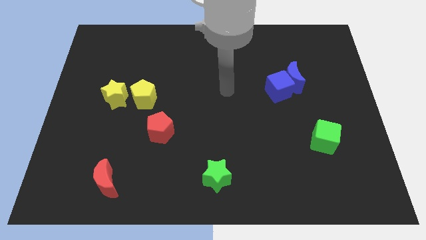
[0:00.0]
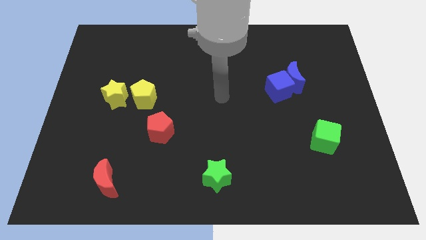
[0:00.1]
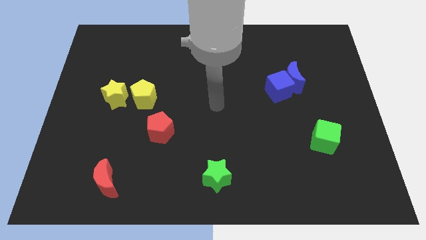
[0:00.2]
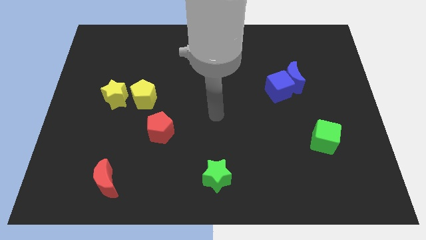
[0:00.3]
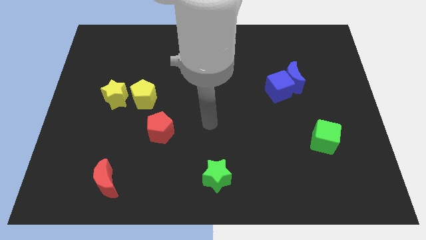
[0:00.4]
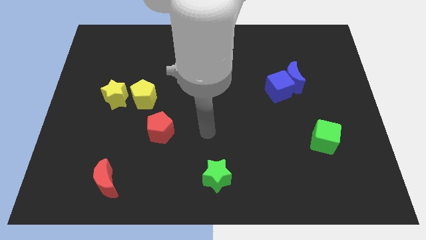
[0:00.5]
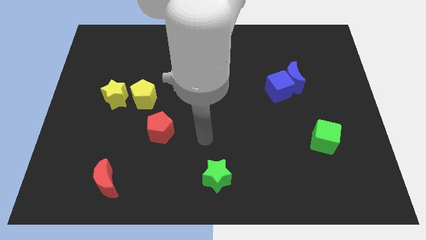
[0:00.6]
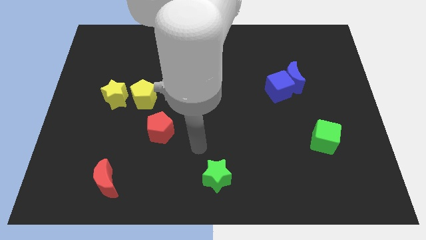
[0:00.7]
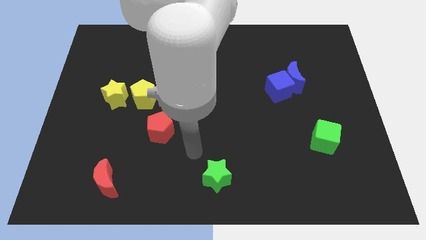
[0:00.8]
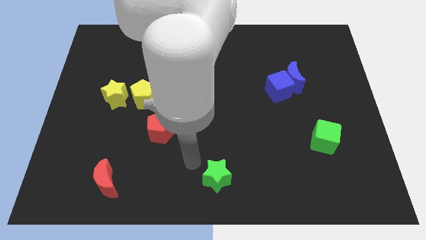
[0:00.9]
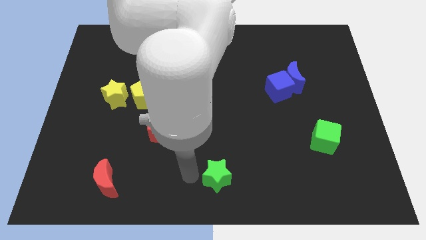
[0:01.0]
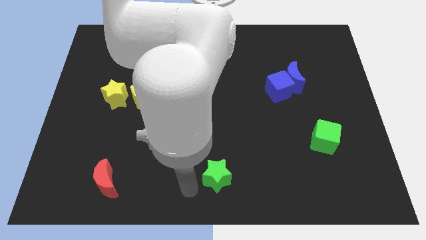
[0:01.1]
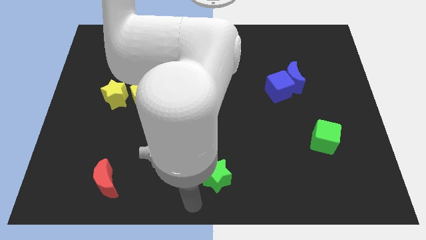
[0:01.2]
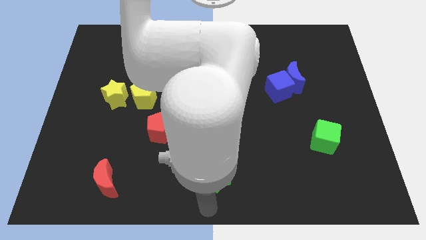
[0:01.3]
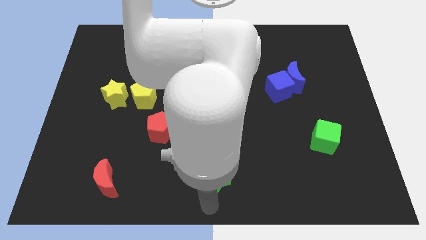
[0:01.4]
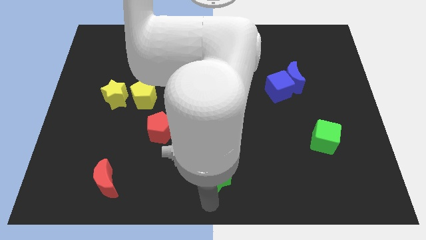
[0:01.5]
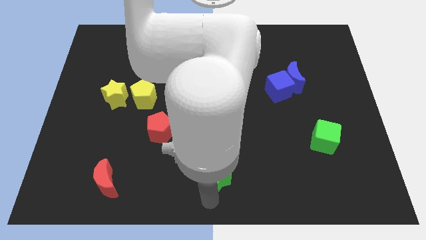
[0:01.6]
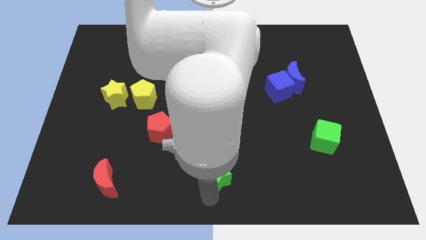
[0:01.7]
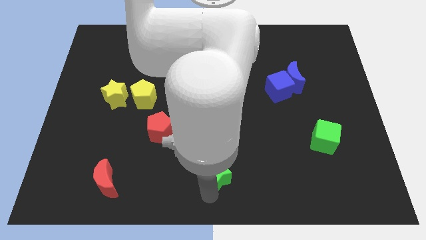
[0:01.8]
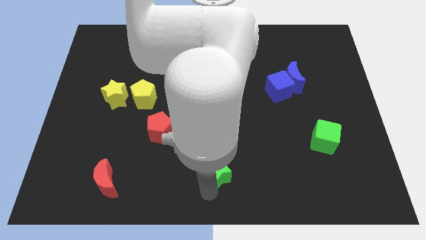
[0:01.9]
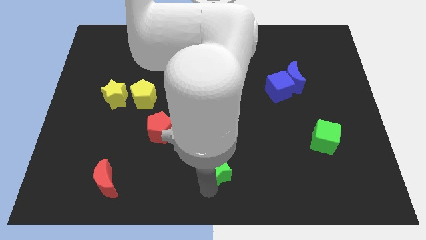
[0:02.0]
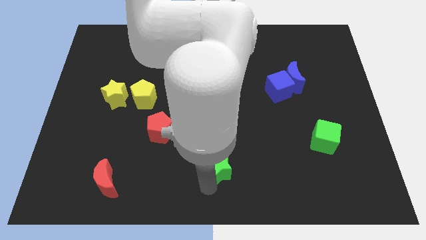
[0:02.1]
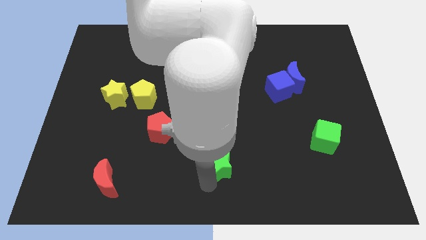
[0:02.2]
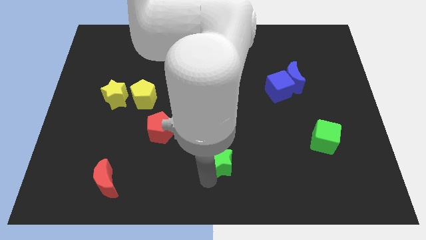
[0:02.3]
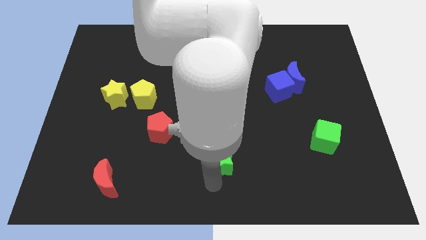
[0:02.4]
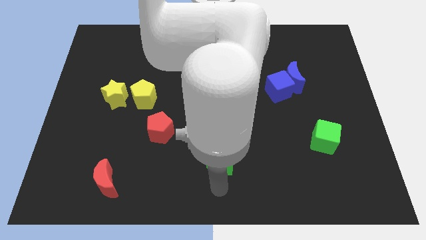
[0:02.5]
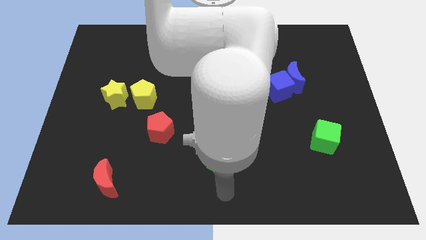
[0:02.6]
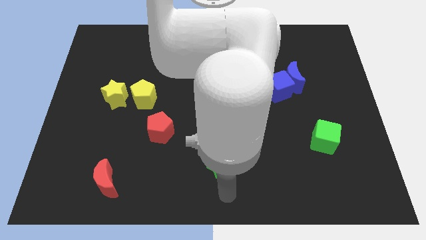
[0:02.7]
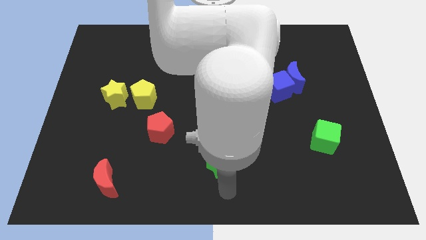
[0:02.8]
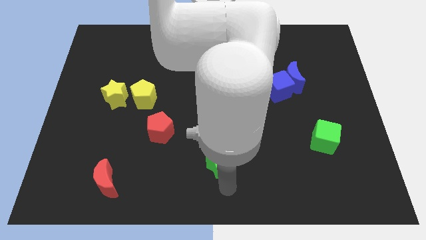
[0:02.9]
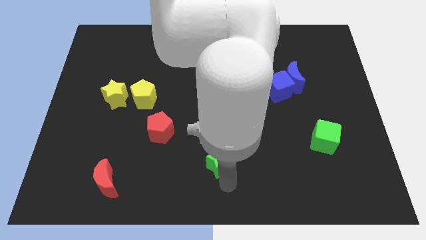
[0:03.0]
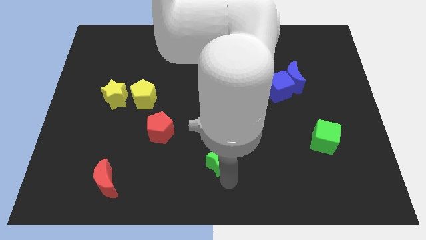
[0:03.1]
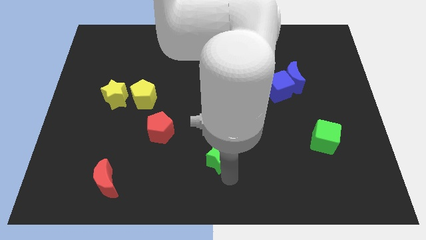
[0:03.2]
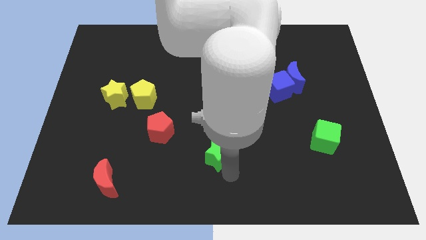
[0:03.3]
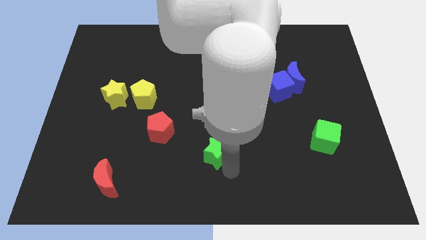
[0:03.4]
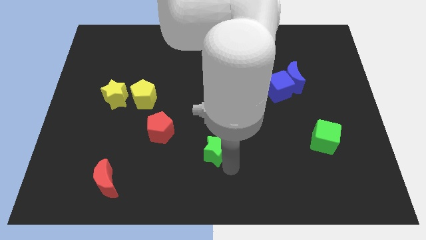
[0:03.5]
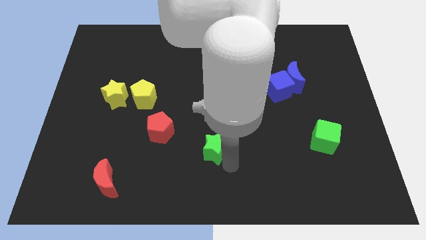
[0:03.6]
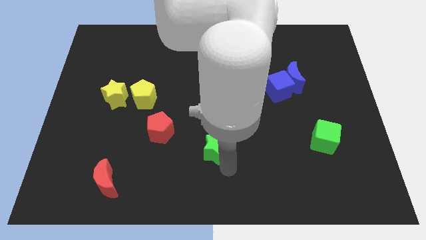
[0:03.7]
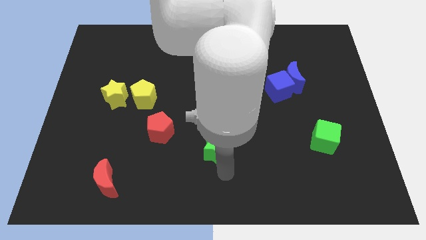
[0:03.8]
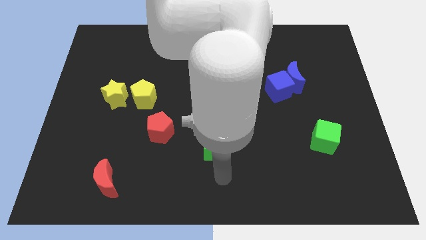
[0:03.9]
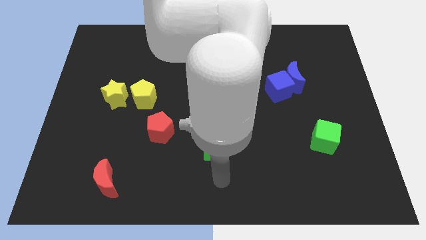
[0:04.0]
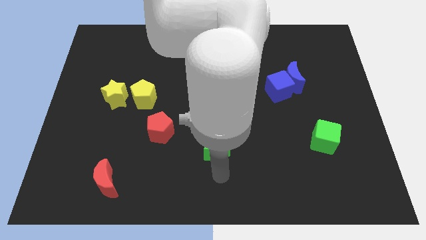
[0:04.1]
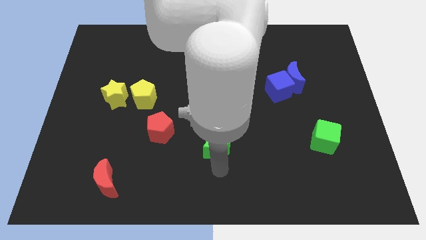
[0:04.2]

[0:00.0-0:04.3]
move the green star somewhat upwards

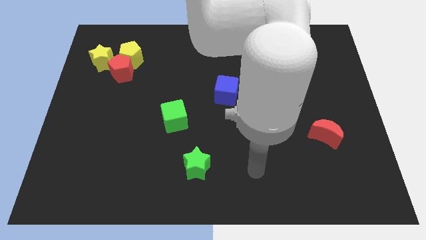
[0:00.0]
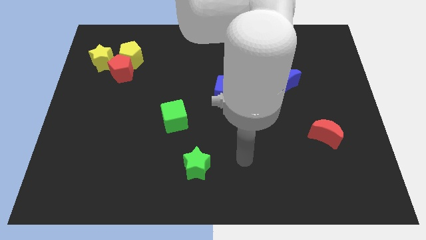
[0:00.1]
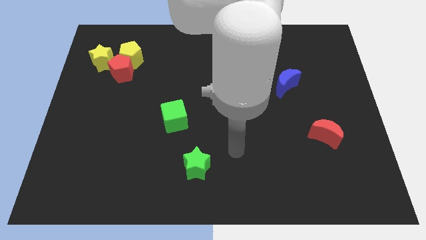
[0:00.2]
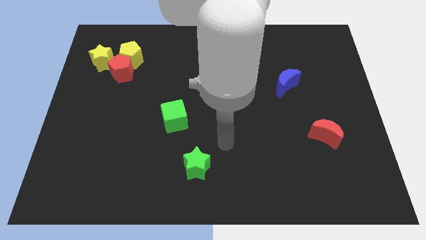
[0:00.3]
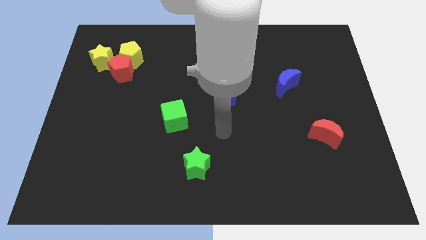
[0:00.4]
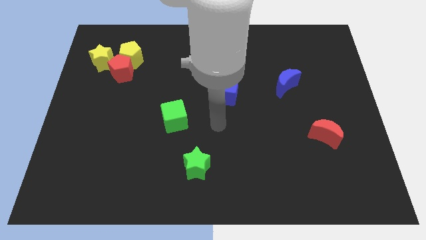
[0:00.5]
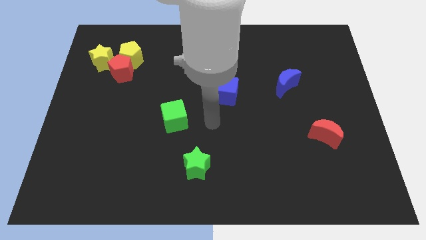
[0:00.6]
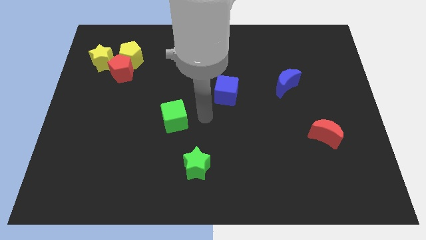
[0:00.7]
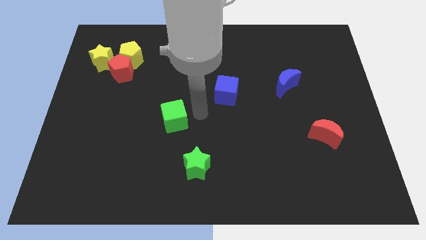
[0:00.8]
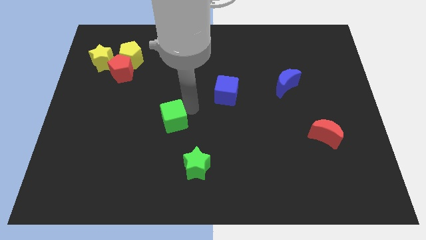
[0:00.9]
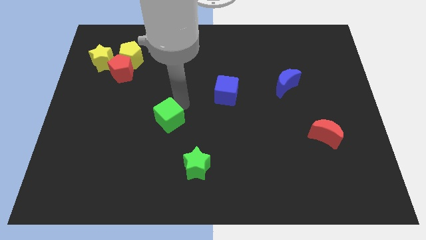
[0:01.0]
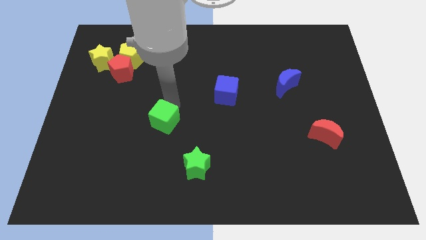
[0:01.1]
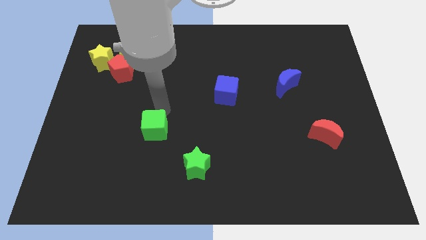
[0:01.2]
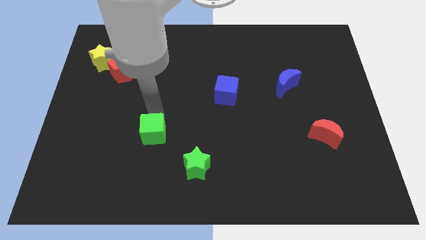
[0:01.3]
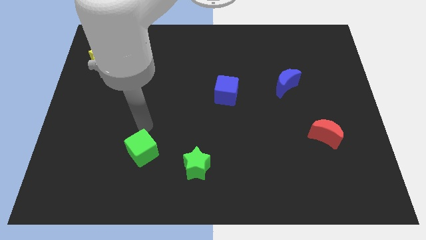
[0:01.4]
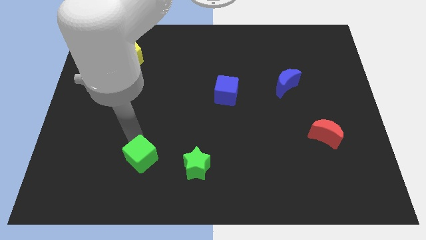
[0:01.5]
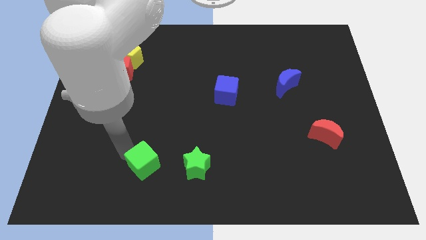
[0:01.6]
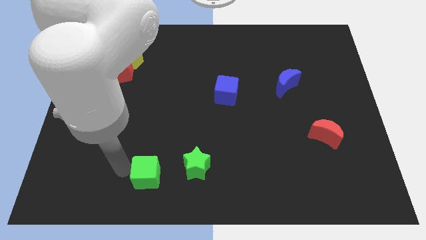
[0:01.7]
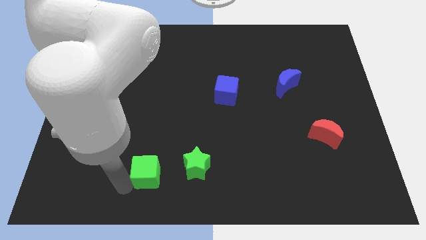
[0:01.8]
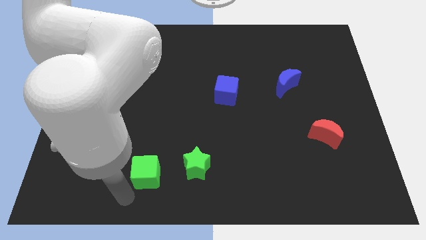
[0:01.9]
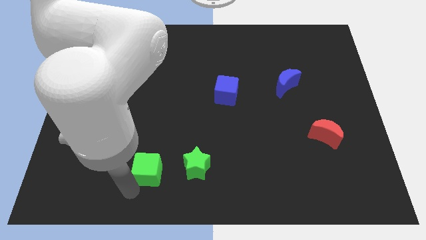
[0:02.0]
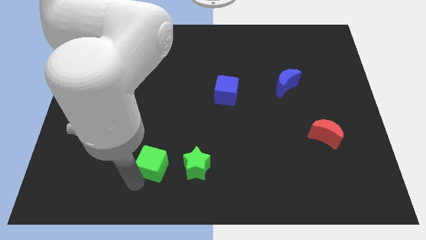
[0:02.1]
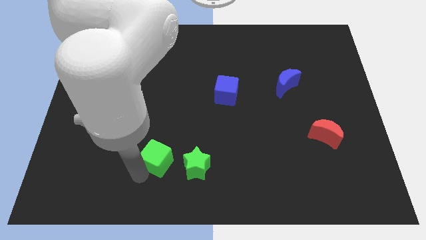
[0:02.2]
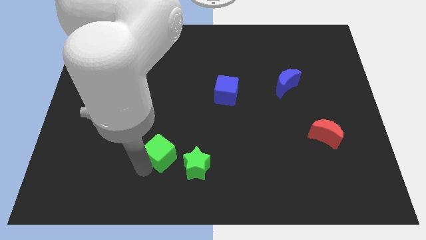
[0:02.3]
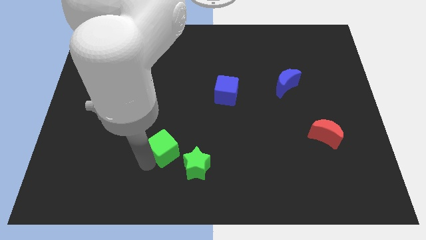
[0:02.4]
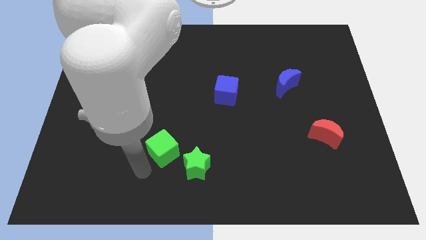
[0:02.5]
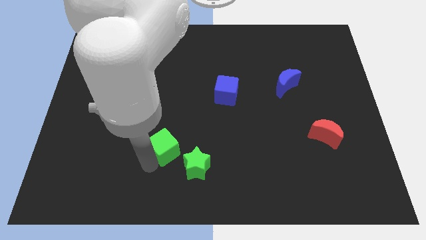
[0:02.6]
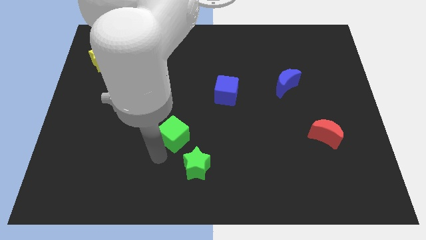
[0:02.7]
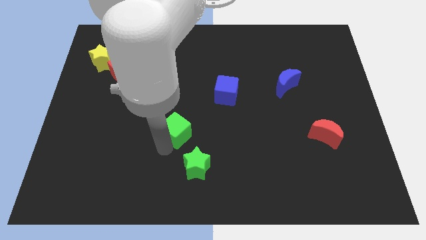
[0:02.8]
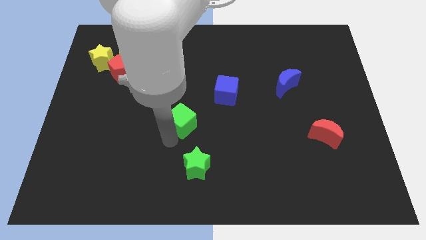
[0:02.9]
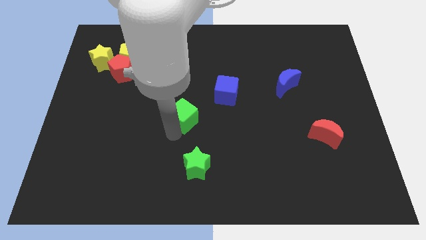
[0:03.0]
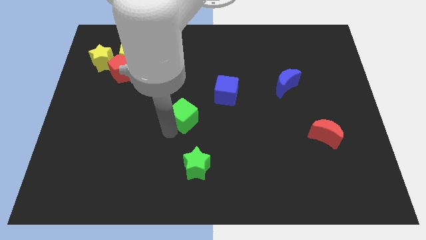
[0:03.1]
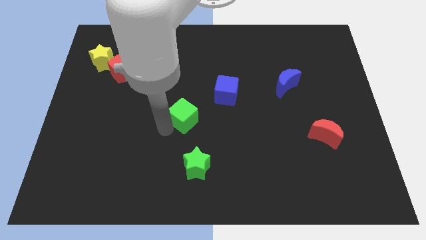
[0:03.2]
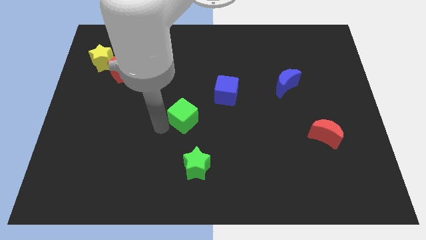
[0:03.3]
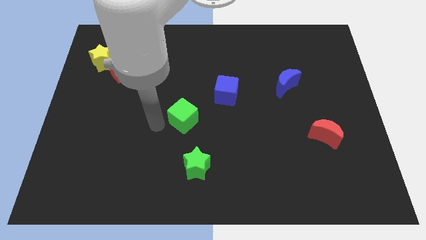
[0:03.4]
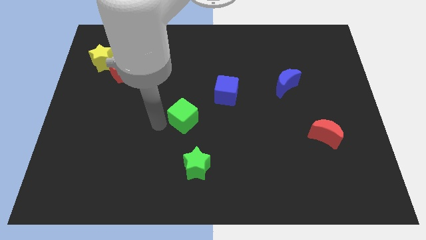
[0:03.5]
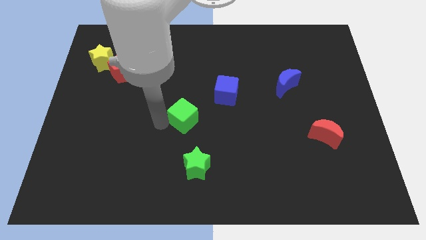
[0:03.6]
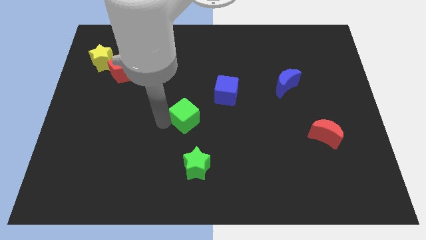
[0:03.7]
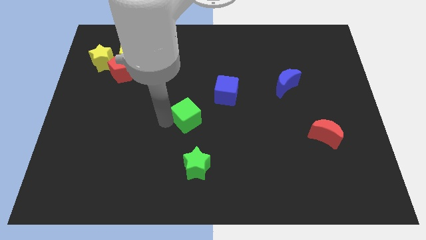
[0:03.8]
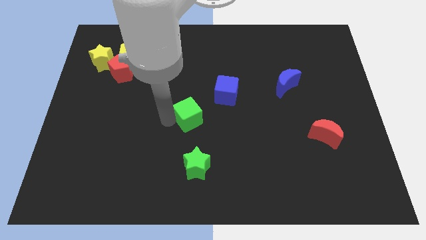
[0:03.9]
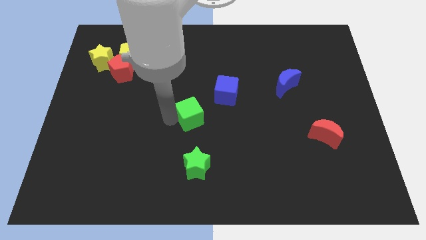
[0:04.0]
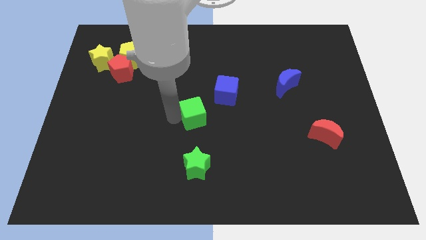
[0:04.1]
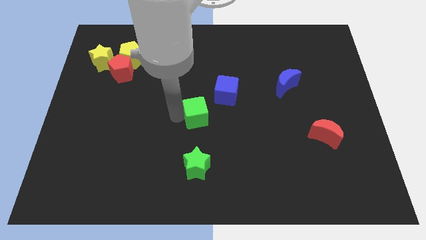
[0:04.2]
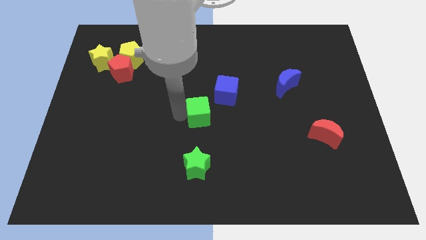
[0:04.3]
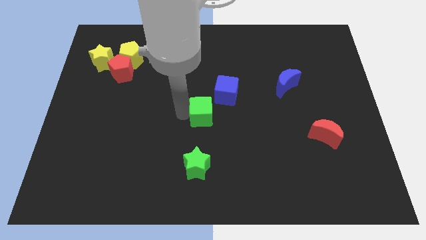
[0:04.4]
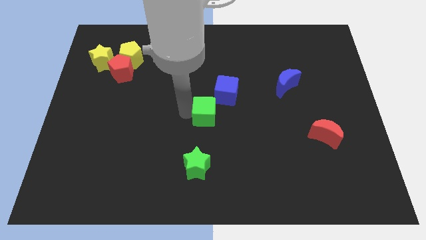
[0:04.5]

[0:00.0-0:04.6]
slightly move the green cube to the right
